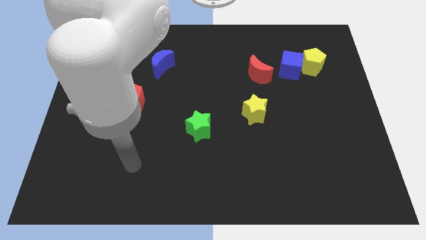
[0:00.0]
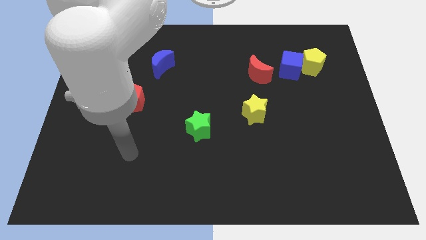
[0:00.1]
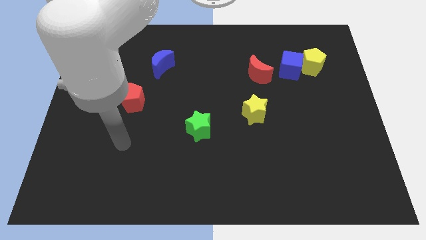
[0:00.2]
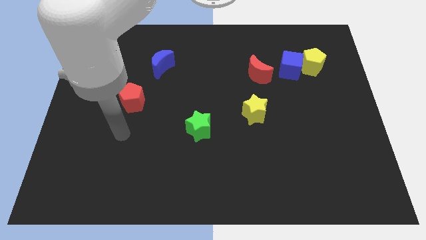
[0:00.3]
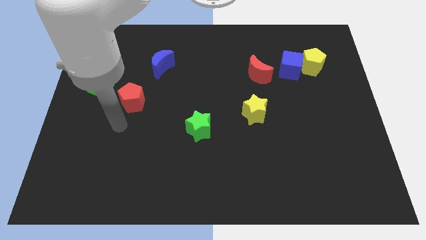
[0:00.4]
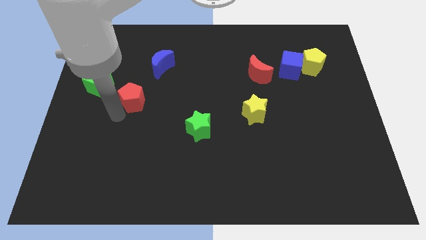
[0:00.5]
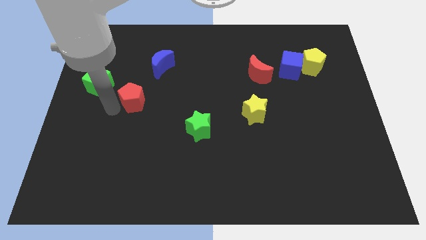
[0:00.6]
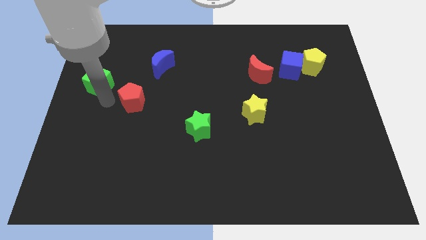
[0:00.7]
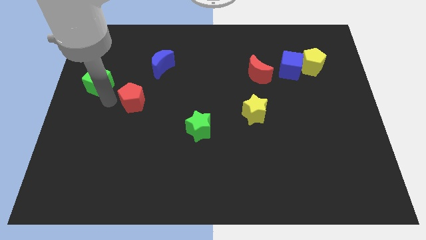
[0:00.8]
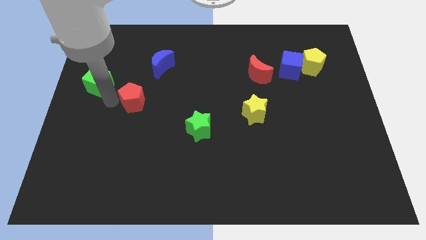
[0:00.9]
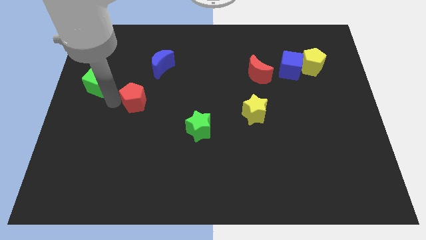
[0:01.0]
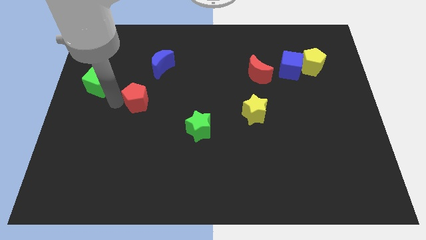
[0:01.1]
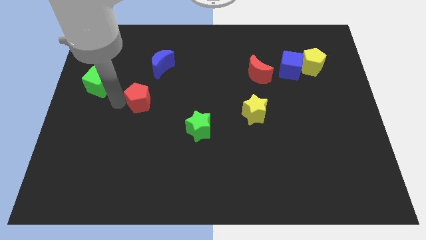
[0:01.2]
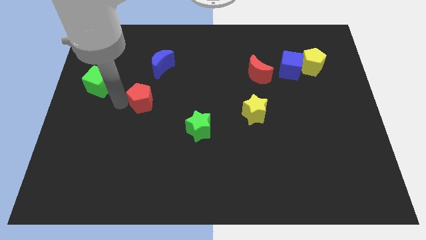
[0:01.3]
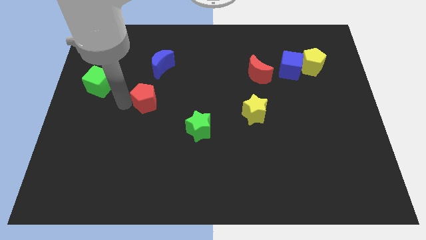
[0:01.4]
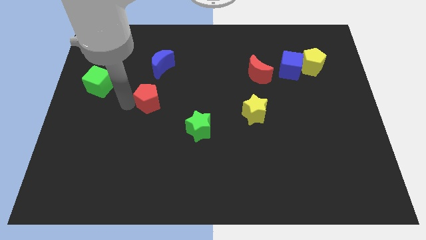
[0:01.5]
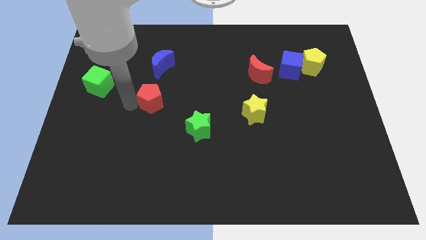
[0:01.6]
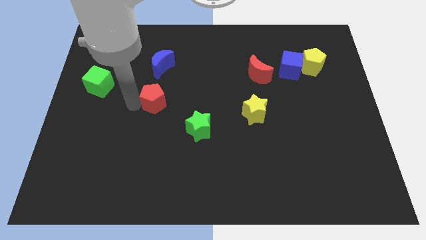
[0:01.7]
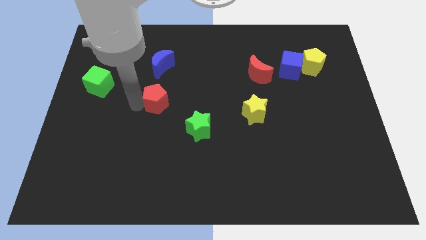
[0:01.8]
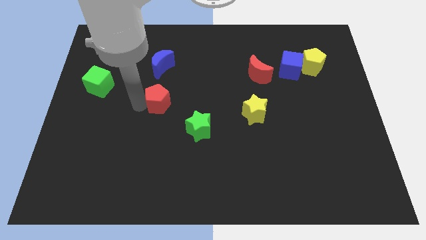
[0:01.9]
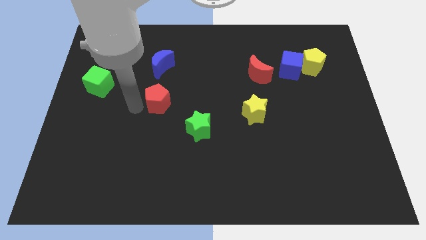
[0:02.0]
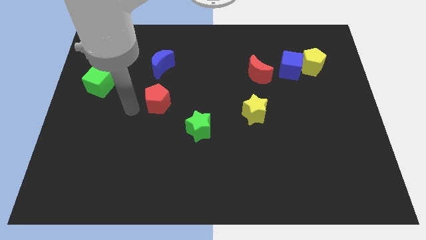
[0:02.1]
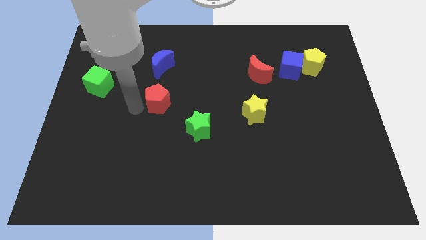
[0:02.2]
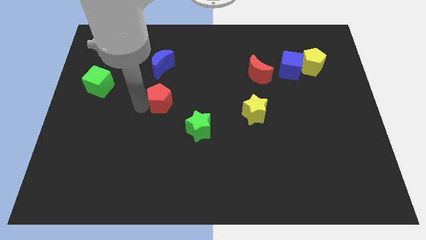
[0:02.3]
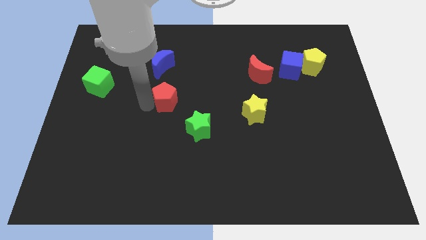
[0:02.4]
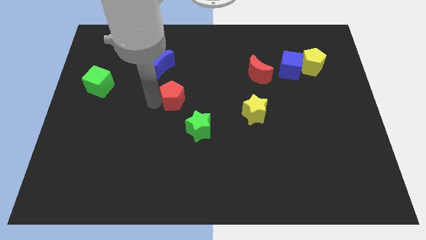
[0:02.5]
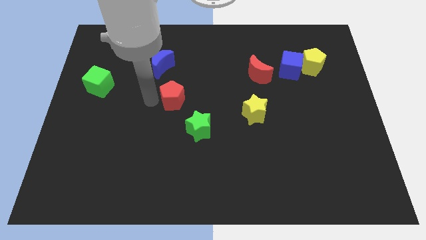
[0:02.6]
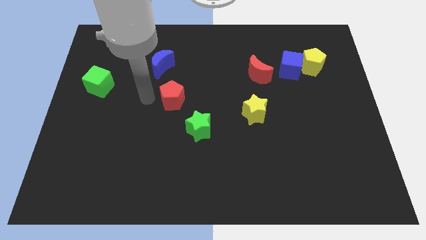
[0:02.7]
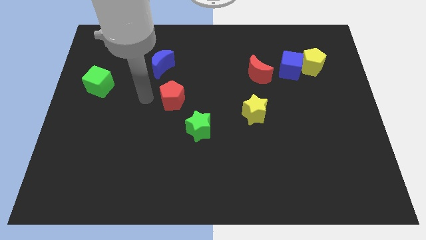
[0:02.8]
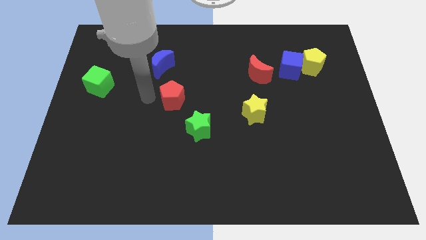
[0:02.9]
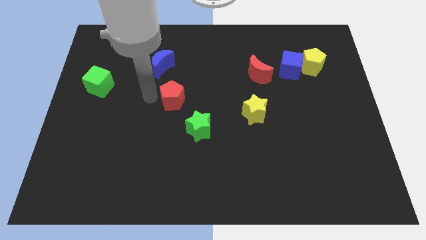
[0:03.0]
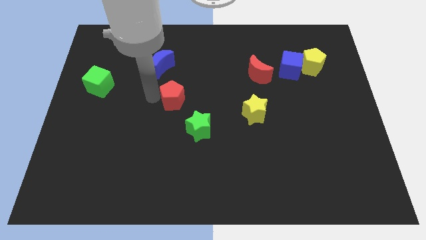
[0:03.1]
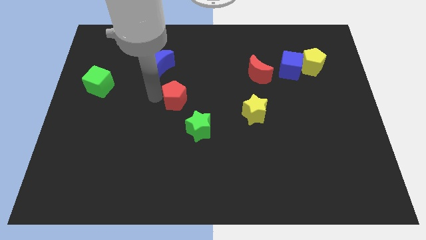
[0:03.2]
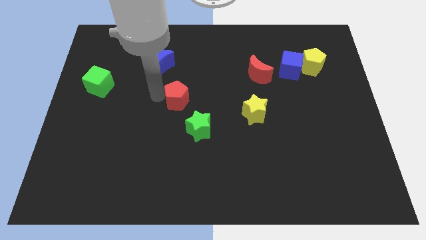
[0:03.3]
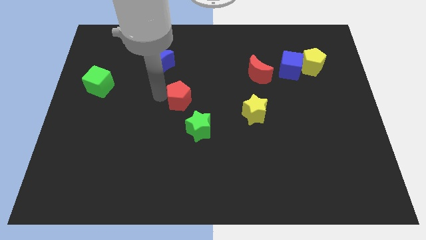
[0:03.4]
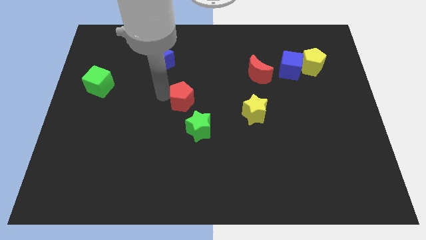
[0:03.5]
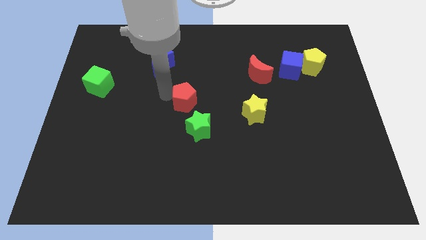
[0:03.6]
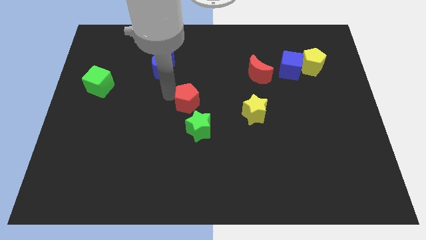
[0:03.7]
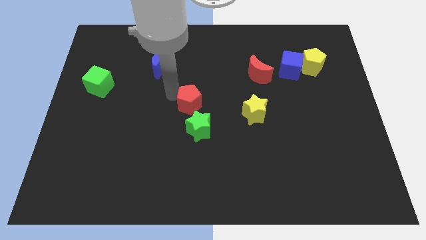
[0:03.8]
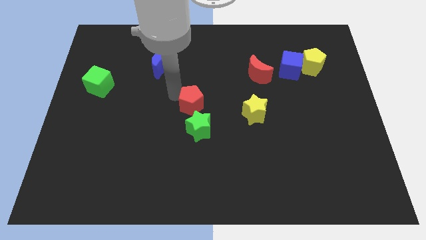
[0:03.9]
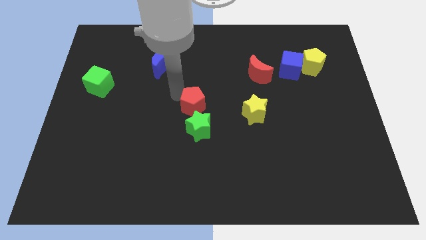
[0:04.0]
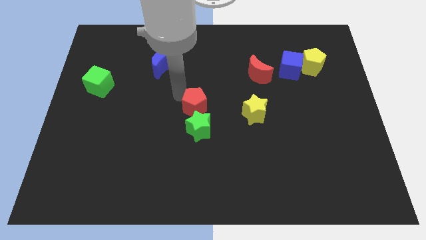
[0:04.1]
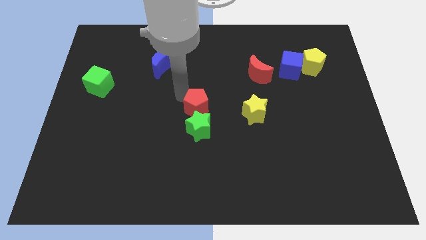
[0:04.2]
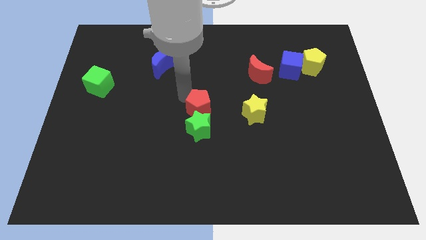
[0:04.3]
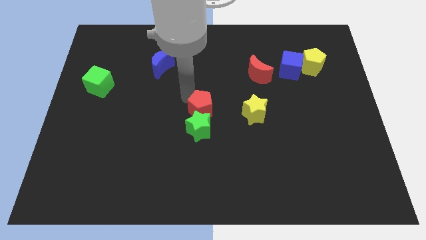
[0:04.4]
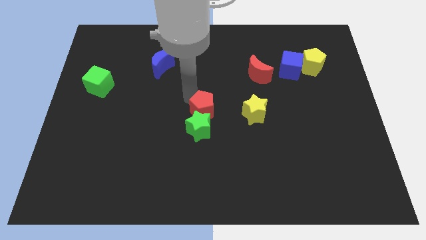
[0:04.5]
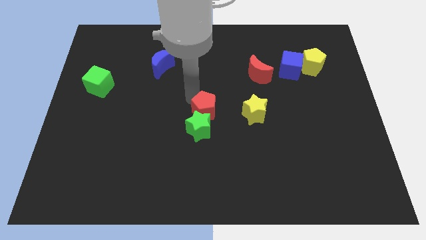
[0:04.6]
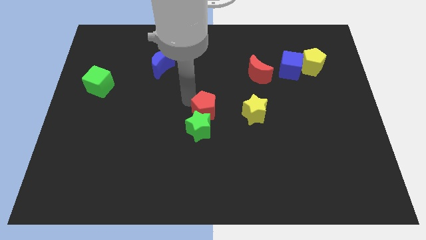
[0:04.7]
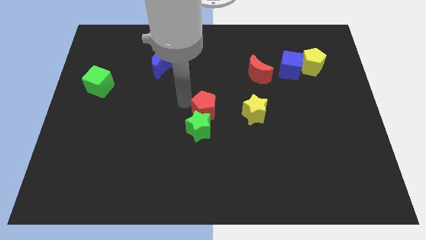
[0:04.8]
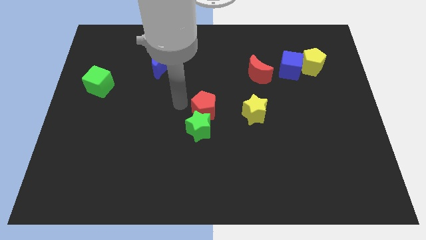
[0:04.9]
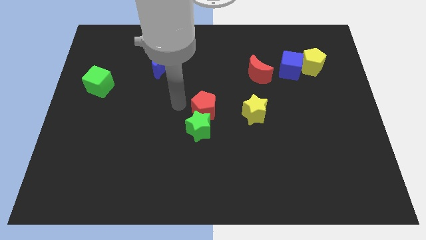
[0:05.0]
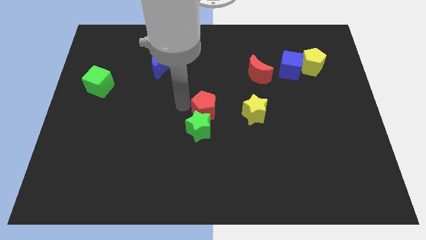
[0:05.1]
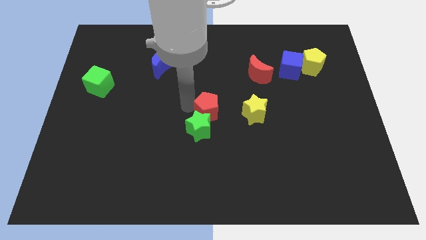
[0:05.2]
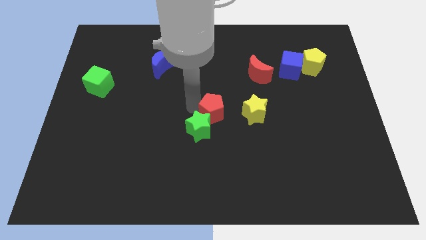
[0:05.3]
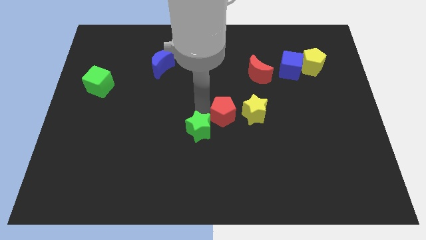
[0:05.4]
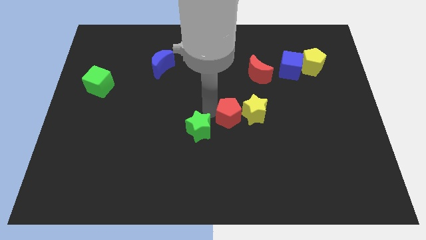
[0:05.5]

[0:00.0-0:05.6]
move the red pentagon next to the yellow star

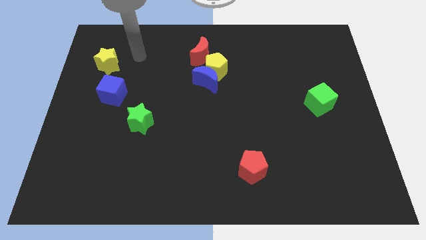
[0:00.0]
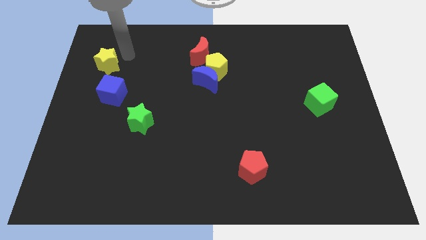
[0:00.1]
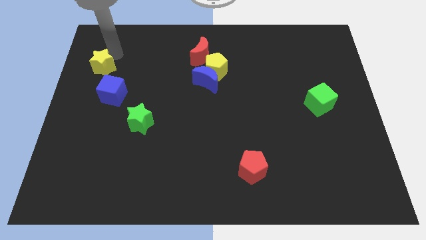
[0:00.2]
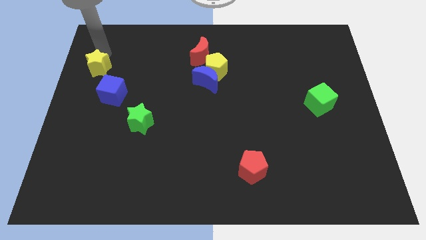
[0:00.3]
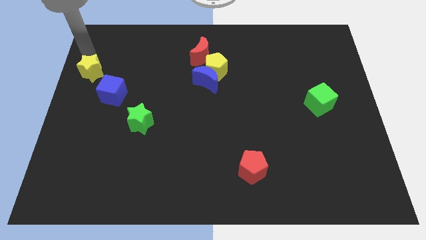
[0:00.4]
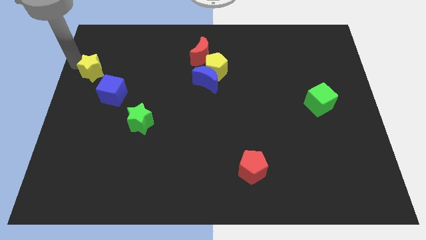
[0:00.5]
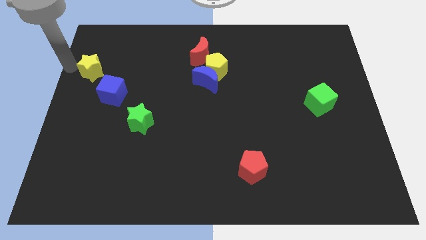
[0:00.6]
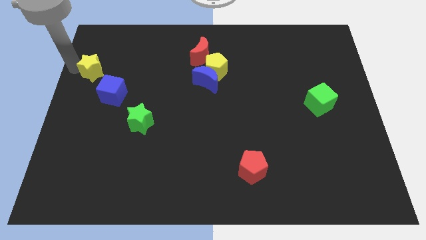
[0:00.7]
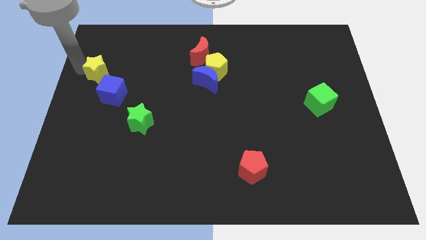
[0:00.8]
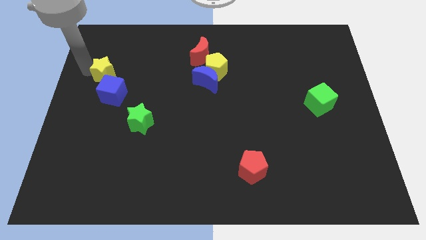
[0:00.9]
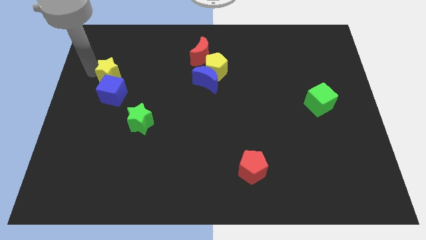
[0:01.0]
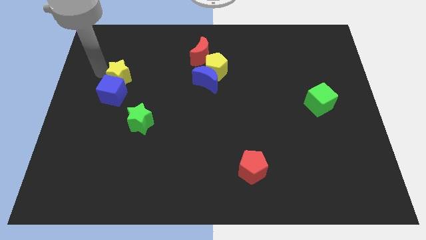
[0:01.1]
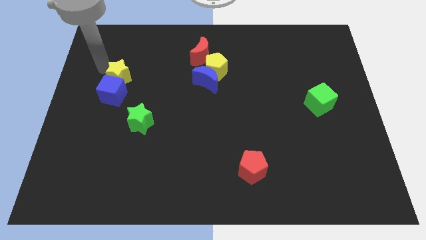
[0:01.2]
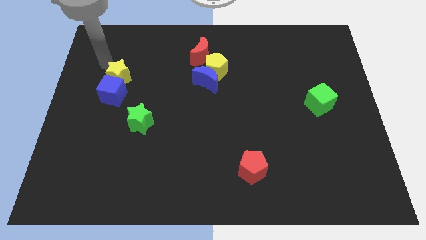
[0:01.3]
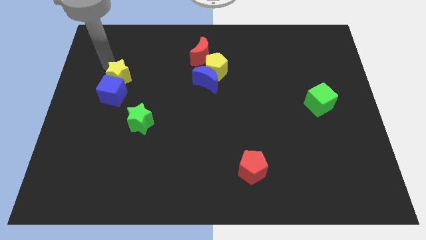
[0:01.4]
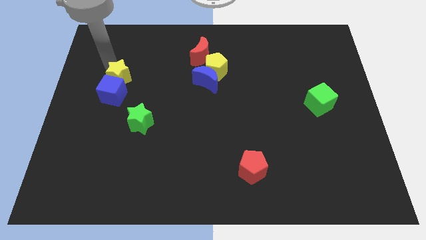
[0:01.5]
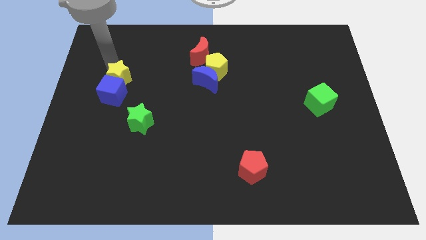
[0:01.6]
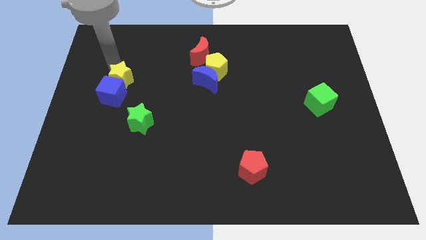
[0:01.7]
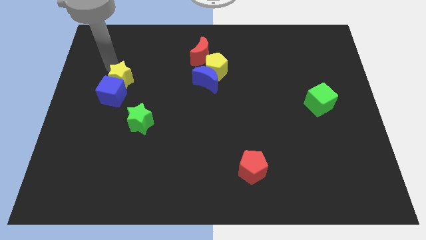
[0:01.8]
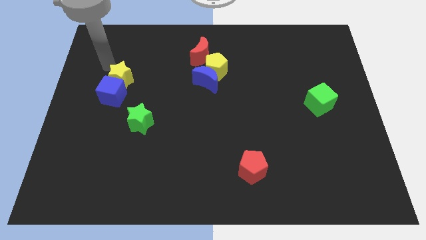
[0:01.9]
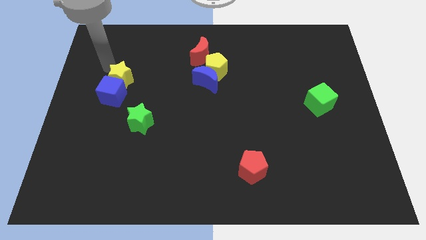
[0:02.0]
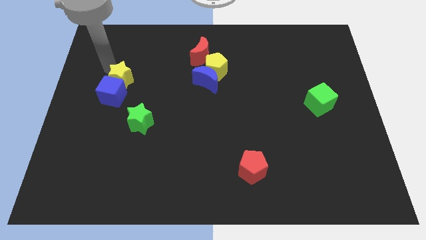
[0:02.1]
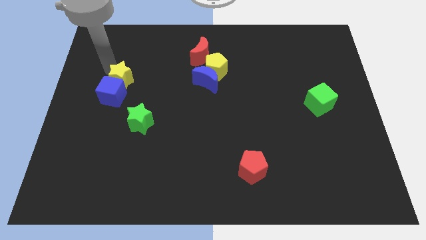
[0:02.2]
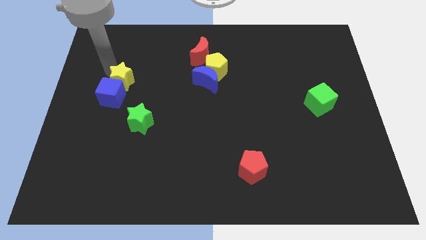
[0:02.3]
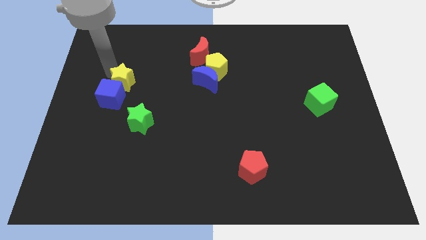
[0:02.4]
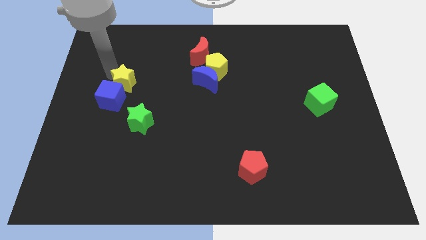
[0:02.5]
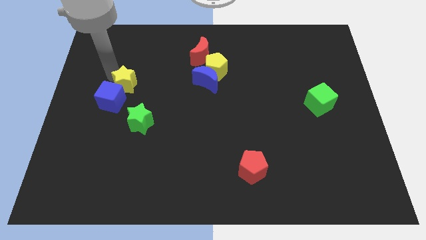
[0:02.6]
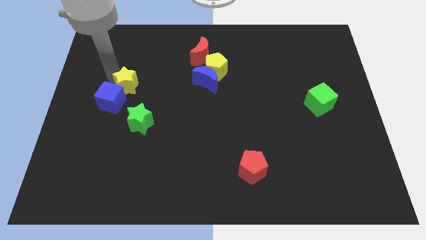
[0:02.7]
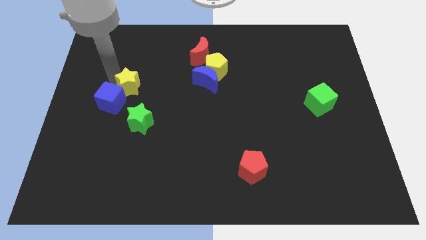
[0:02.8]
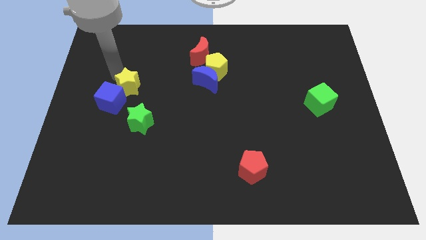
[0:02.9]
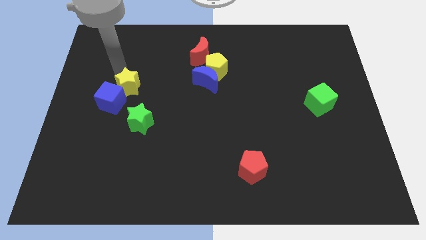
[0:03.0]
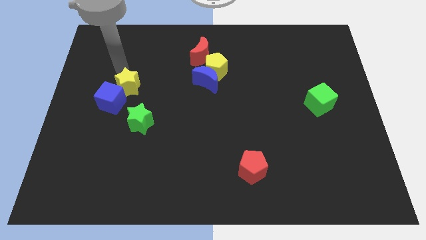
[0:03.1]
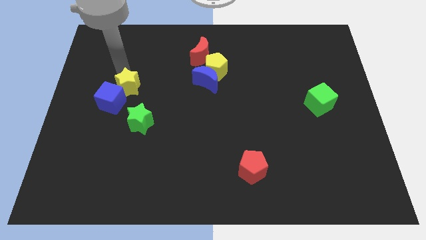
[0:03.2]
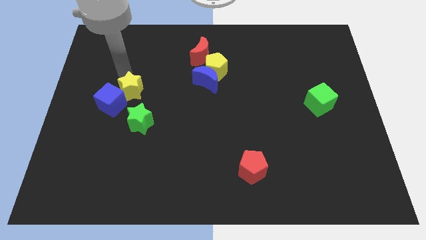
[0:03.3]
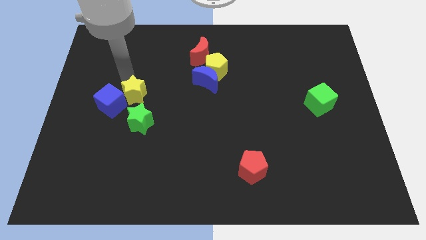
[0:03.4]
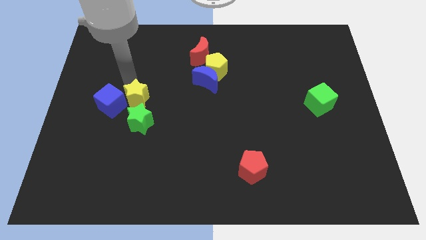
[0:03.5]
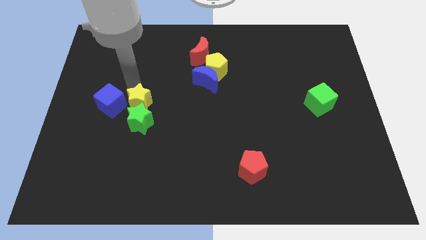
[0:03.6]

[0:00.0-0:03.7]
push the yellow star to the green star
